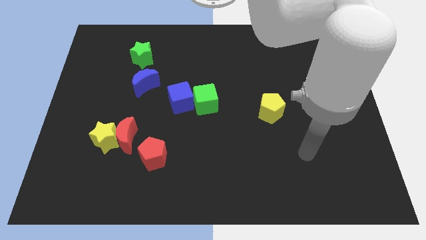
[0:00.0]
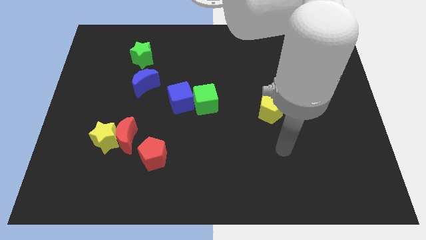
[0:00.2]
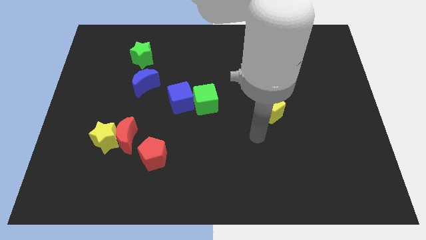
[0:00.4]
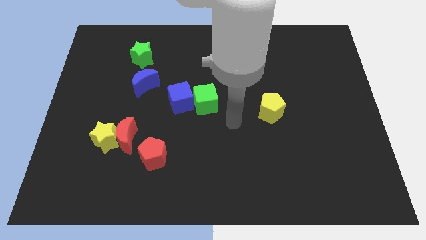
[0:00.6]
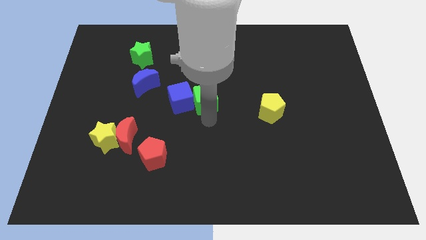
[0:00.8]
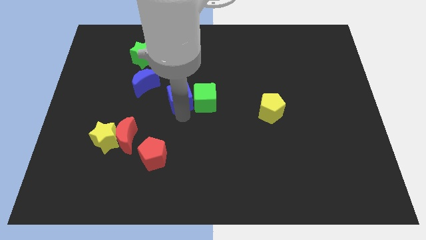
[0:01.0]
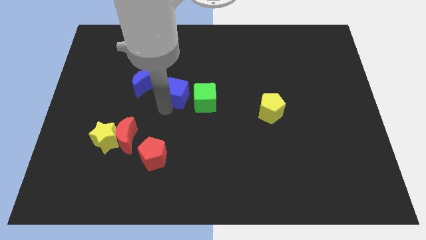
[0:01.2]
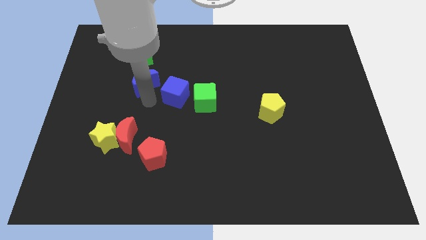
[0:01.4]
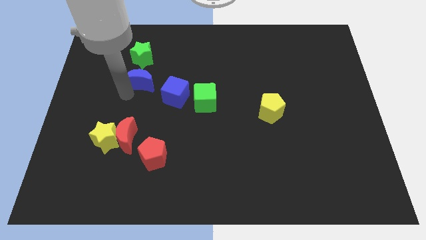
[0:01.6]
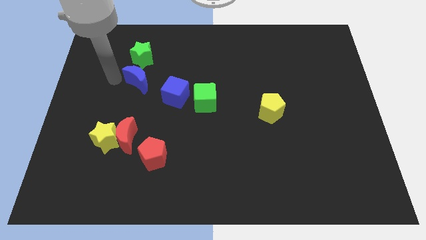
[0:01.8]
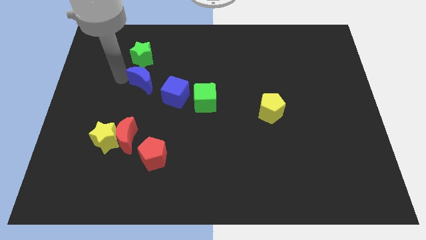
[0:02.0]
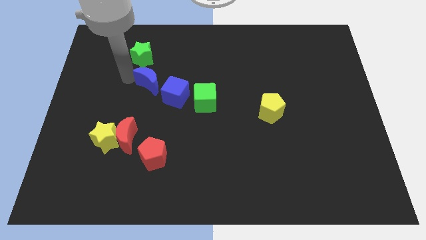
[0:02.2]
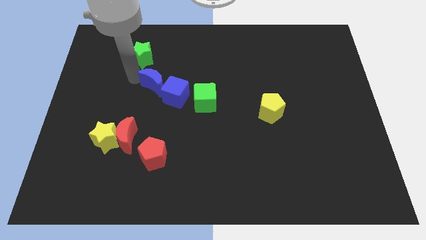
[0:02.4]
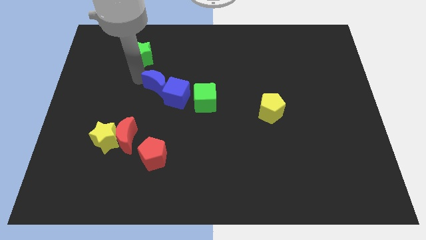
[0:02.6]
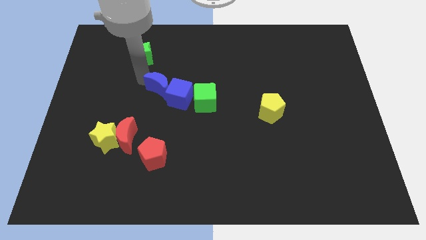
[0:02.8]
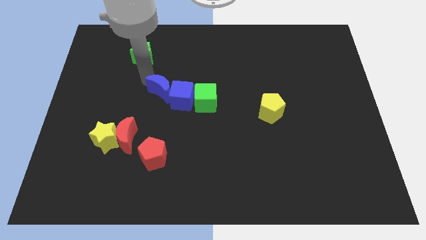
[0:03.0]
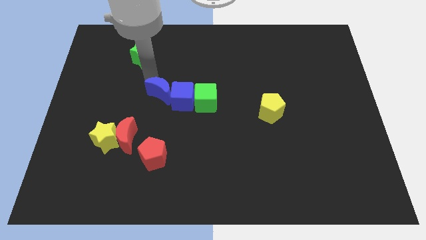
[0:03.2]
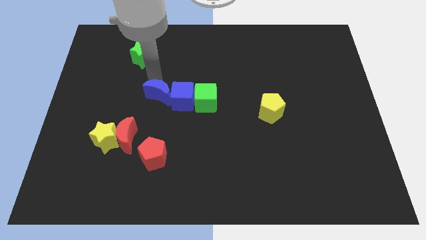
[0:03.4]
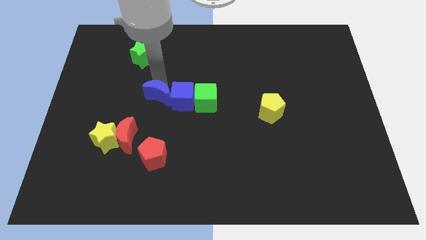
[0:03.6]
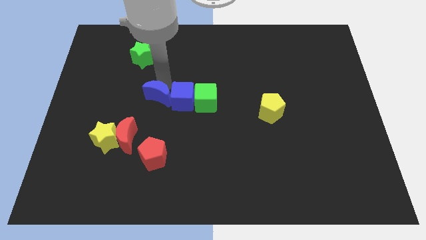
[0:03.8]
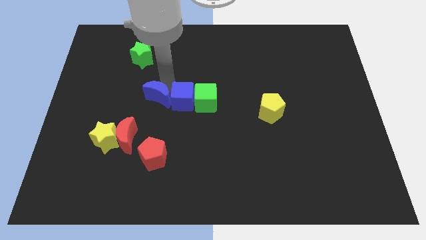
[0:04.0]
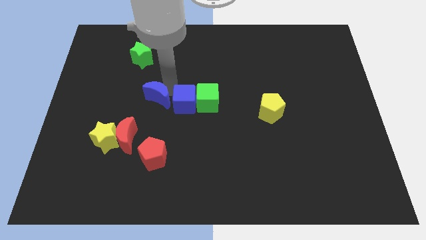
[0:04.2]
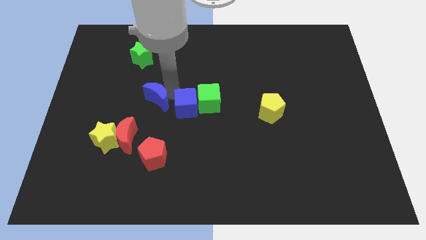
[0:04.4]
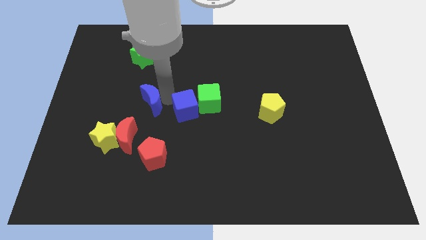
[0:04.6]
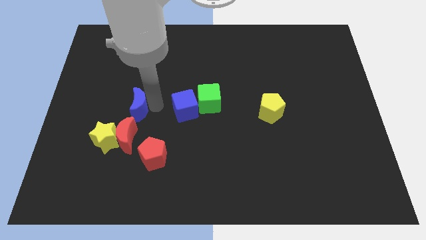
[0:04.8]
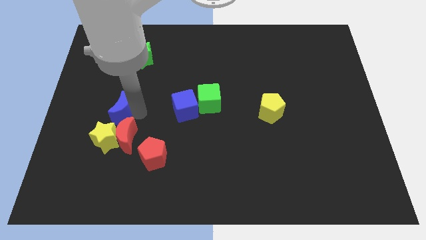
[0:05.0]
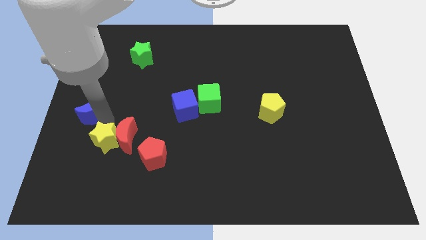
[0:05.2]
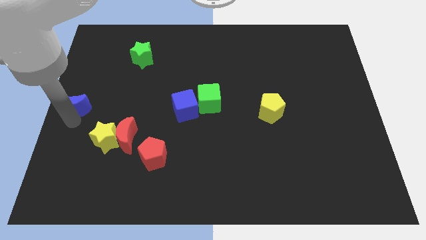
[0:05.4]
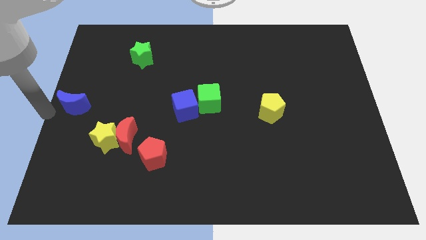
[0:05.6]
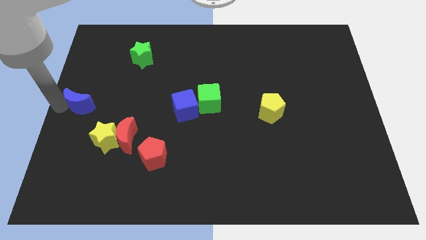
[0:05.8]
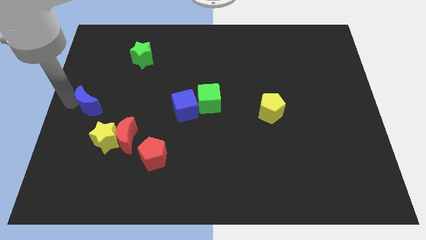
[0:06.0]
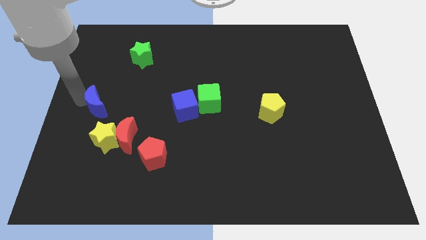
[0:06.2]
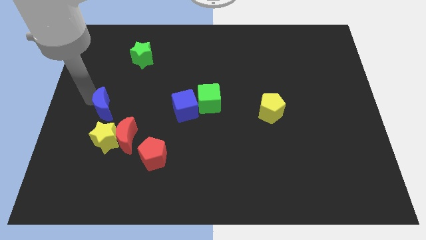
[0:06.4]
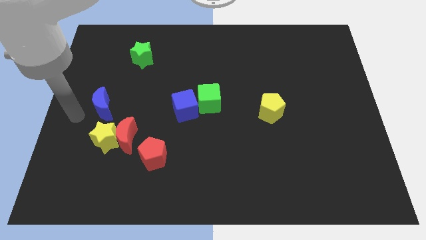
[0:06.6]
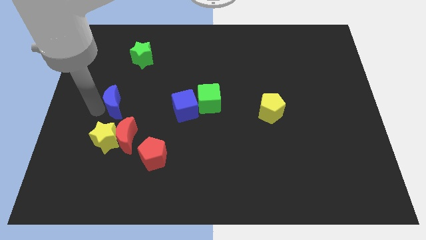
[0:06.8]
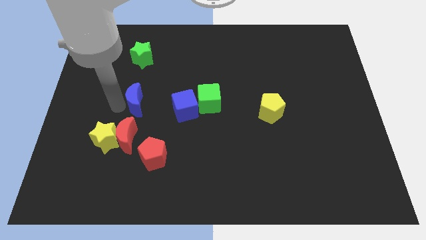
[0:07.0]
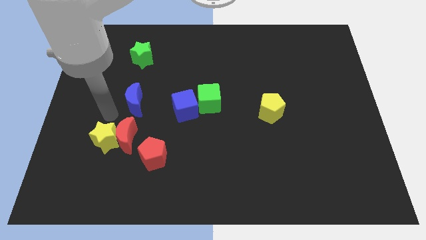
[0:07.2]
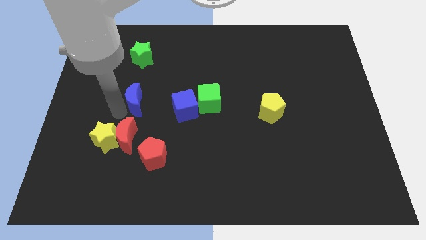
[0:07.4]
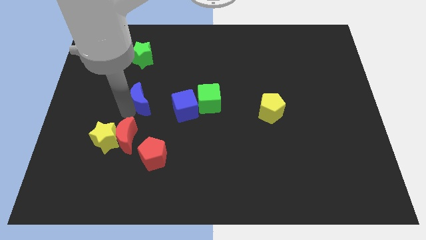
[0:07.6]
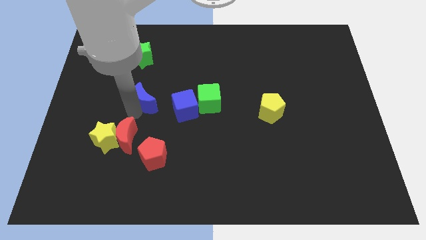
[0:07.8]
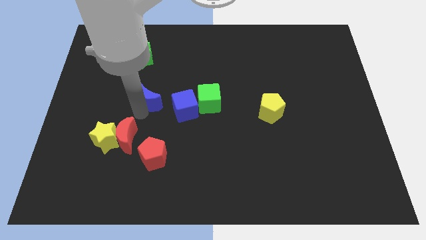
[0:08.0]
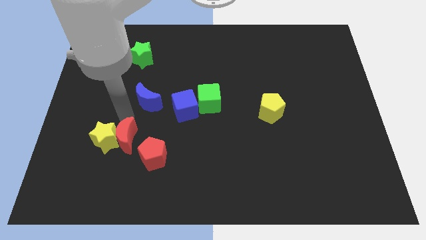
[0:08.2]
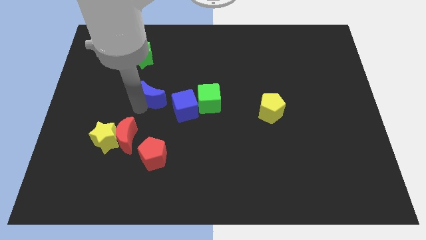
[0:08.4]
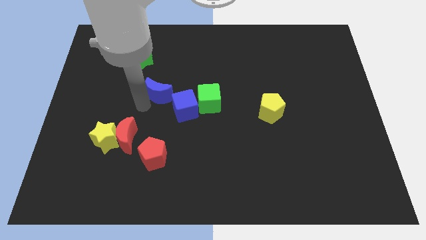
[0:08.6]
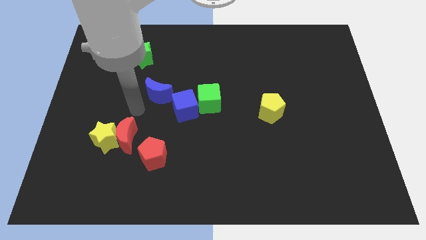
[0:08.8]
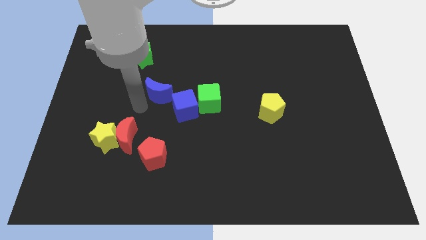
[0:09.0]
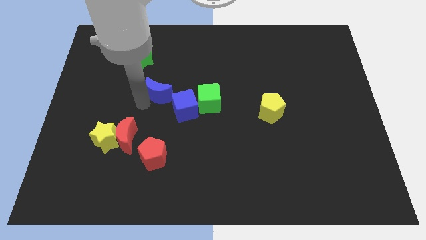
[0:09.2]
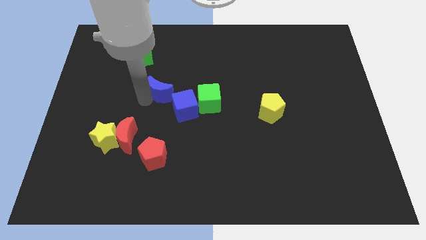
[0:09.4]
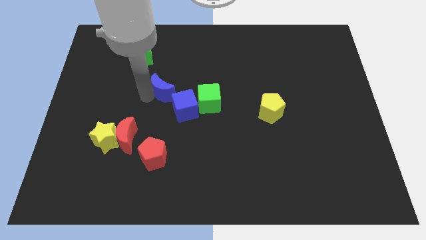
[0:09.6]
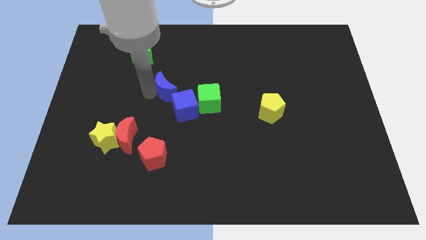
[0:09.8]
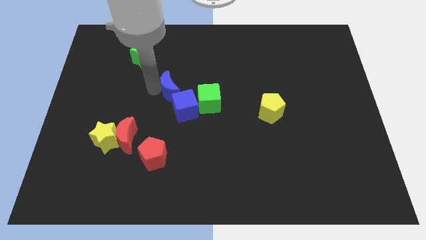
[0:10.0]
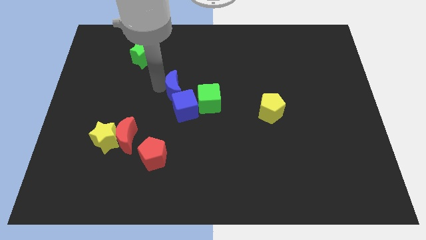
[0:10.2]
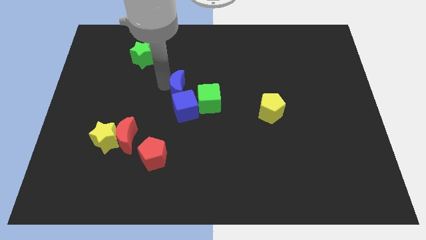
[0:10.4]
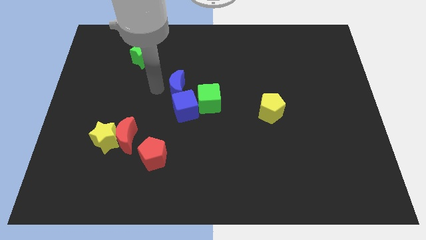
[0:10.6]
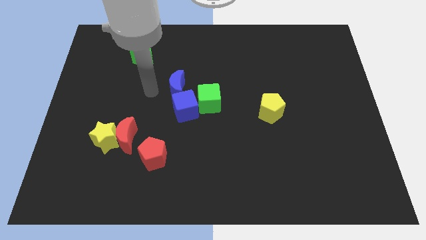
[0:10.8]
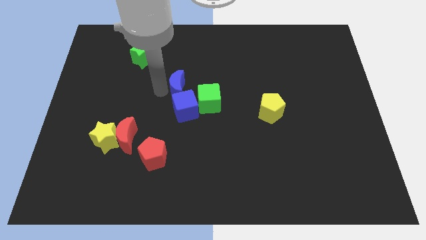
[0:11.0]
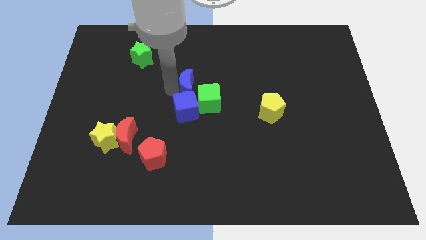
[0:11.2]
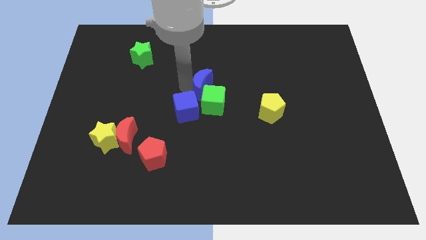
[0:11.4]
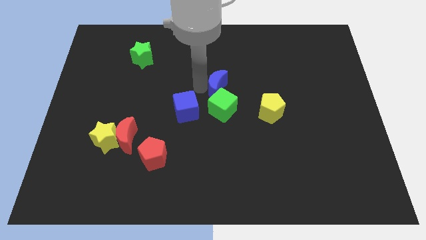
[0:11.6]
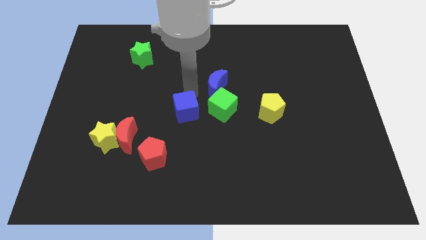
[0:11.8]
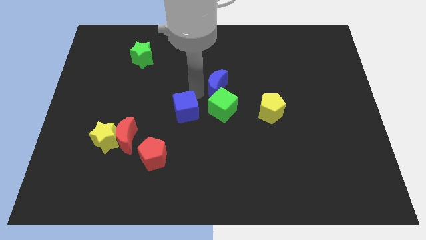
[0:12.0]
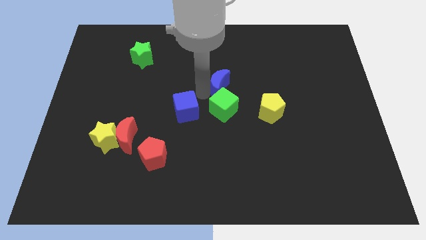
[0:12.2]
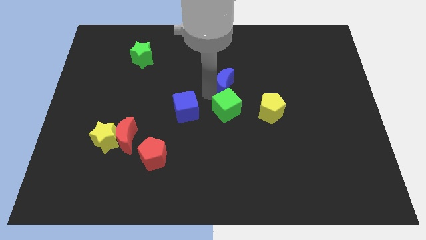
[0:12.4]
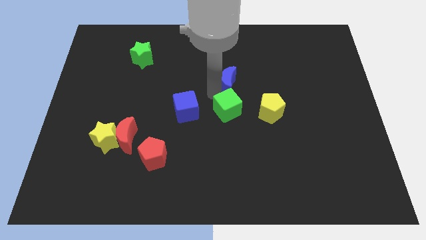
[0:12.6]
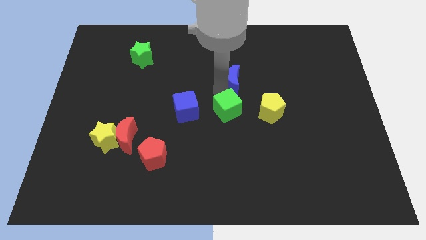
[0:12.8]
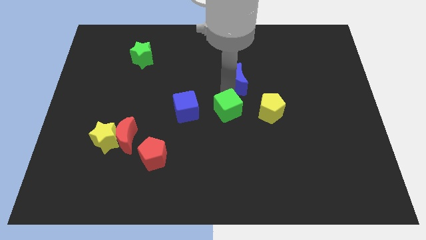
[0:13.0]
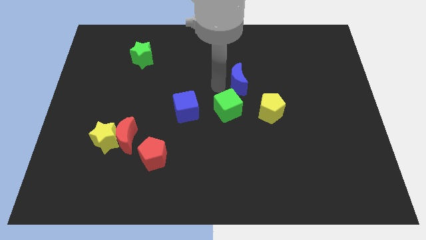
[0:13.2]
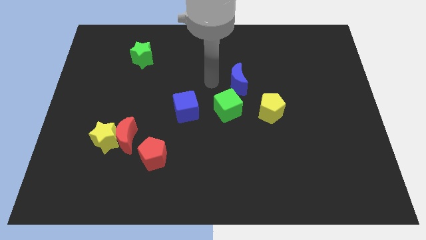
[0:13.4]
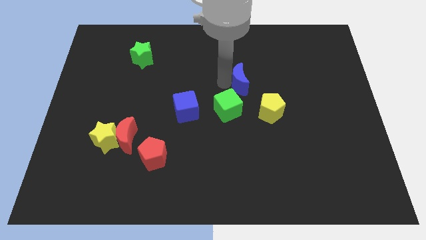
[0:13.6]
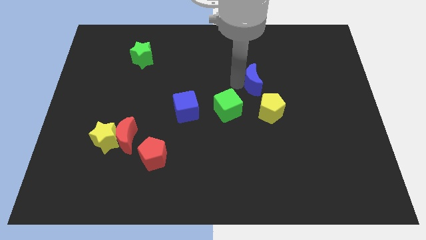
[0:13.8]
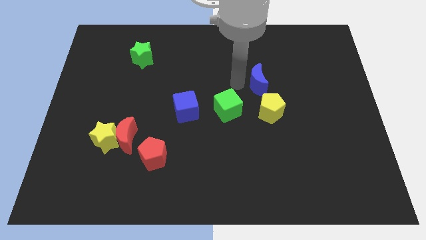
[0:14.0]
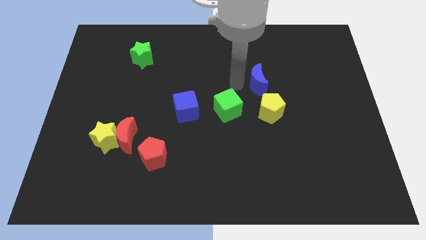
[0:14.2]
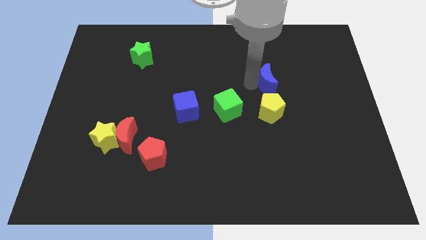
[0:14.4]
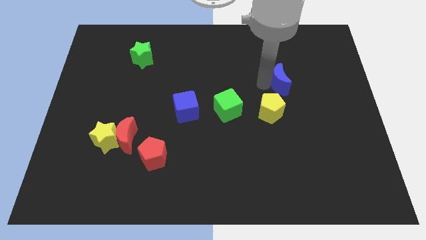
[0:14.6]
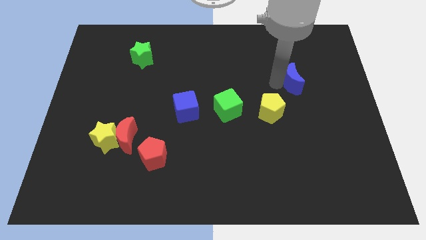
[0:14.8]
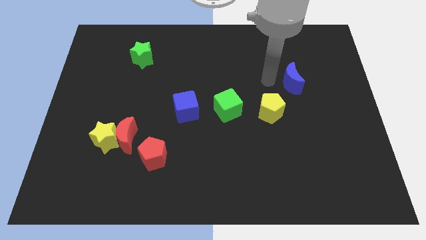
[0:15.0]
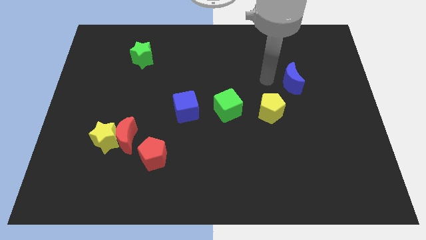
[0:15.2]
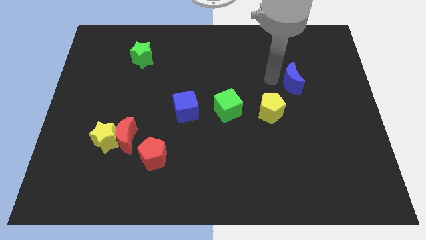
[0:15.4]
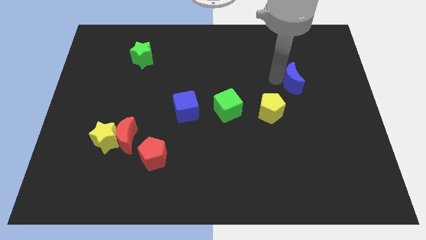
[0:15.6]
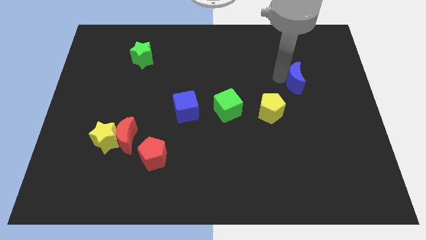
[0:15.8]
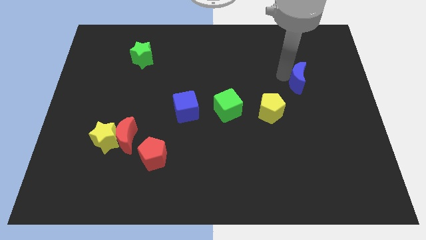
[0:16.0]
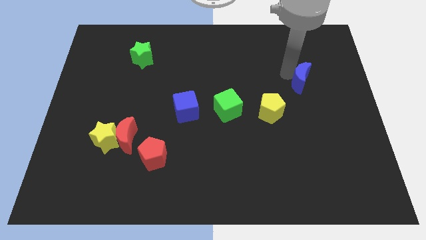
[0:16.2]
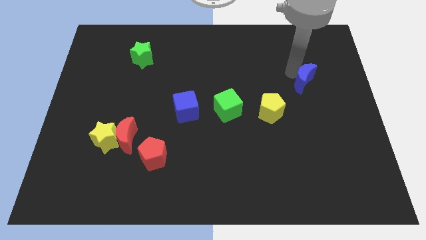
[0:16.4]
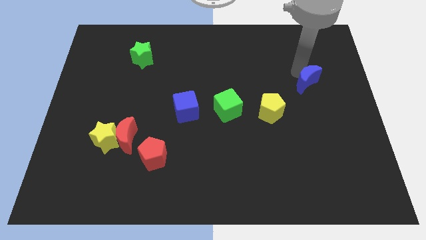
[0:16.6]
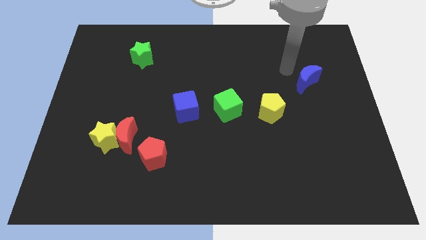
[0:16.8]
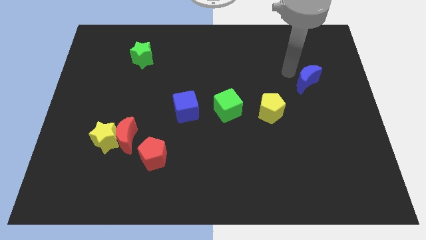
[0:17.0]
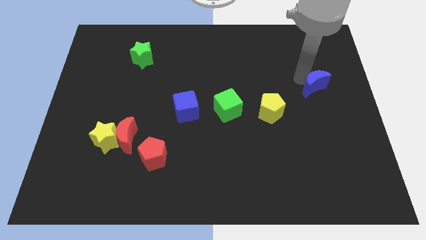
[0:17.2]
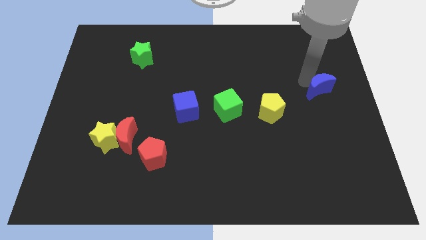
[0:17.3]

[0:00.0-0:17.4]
slide the blue moon to the center right
